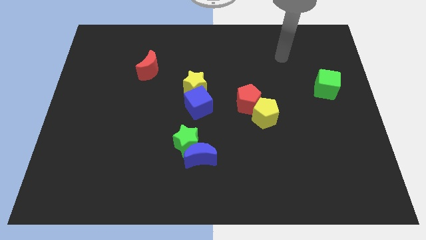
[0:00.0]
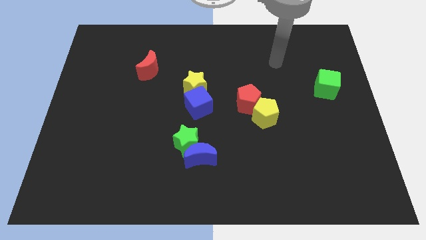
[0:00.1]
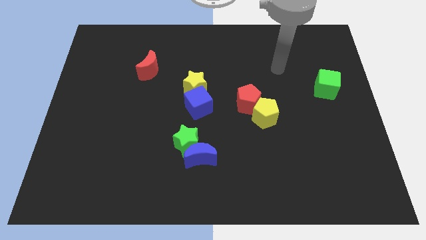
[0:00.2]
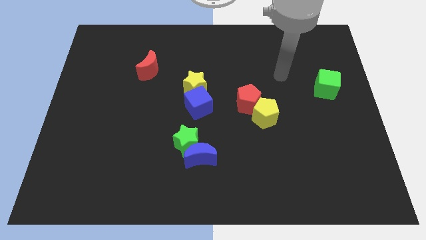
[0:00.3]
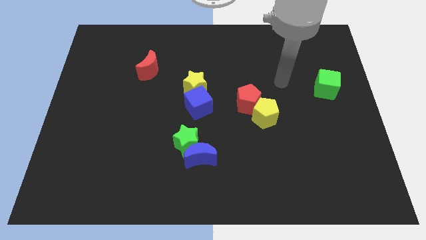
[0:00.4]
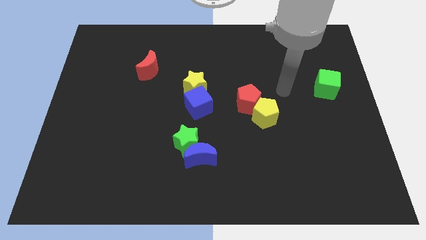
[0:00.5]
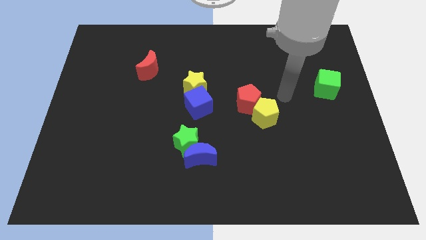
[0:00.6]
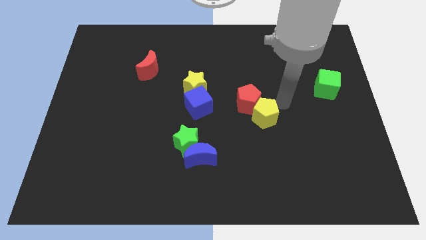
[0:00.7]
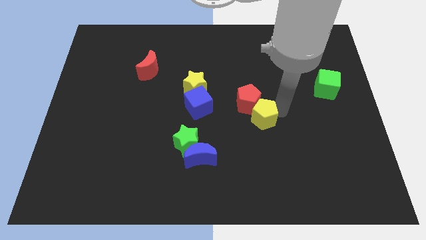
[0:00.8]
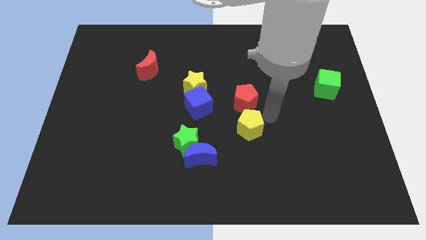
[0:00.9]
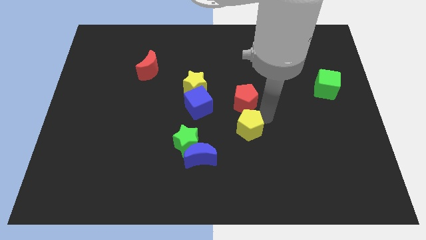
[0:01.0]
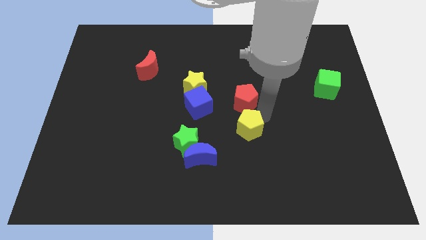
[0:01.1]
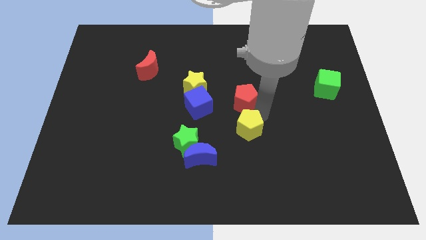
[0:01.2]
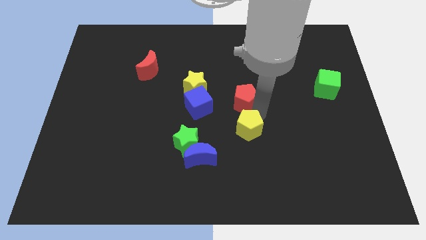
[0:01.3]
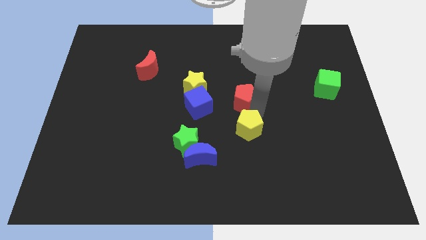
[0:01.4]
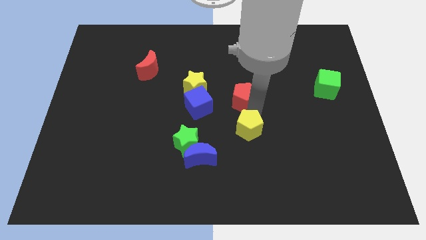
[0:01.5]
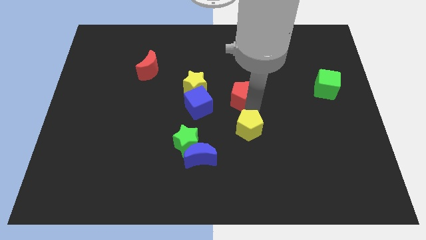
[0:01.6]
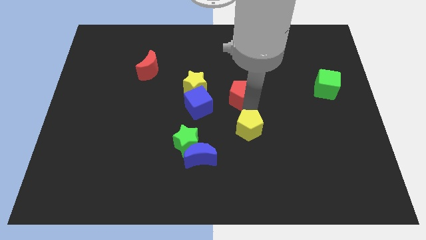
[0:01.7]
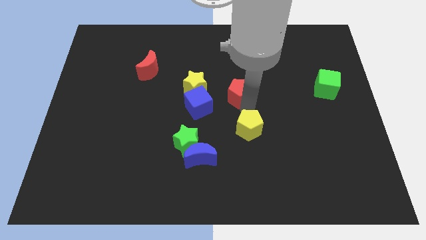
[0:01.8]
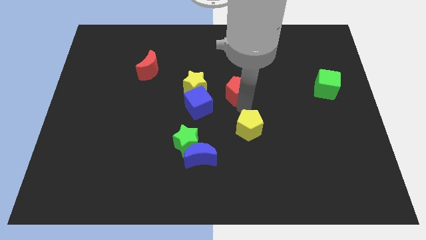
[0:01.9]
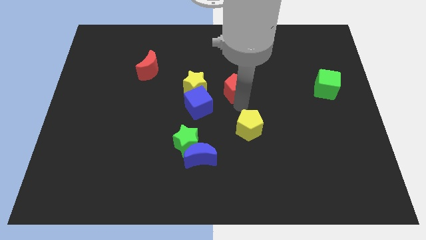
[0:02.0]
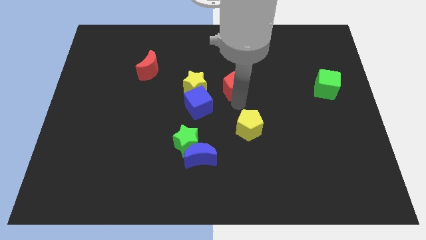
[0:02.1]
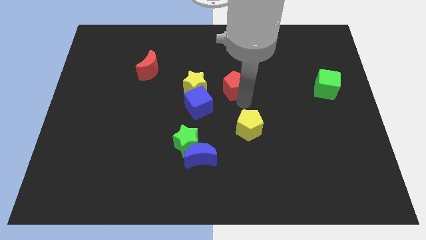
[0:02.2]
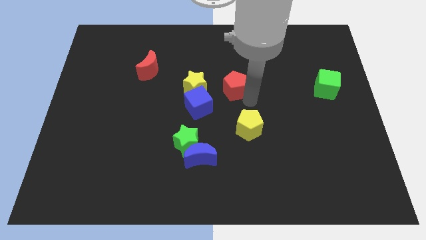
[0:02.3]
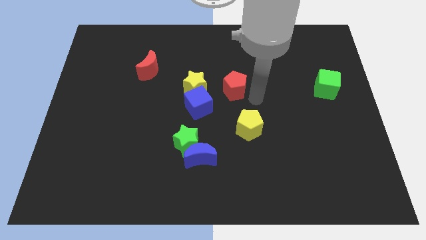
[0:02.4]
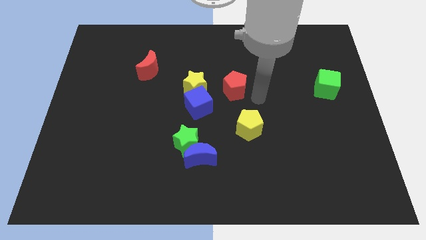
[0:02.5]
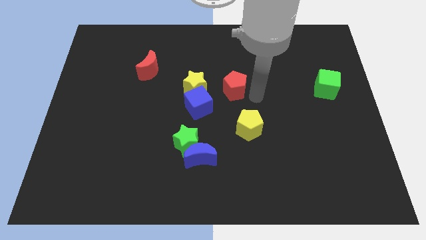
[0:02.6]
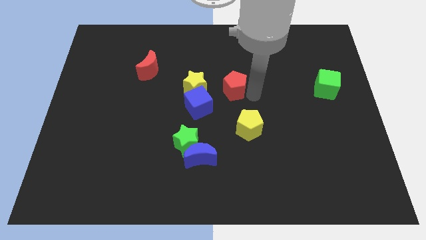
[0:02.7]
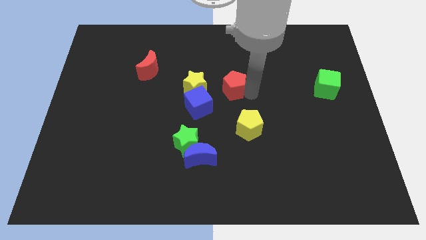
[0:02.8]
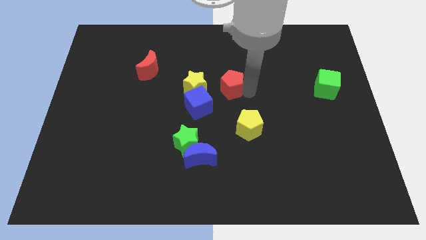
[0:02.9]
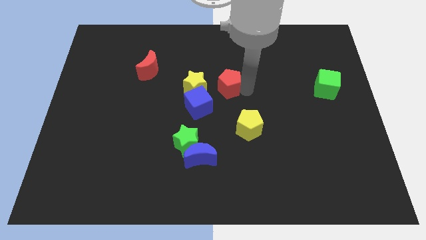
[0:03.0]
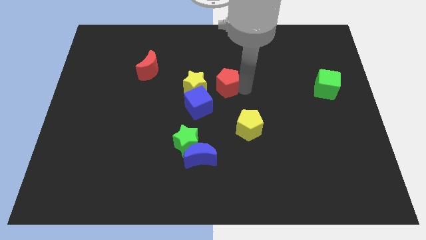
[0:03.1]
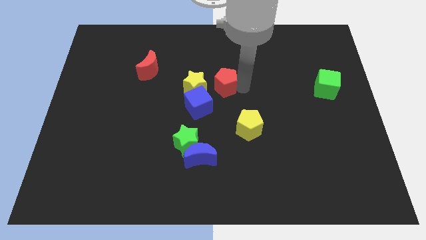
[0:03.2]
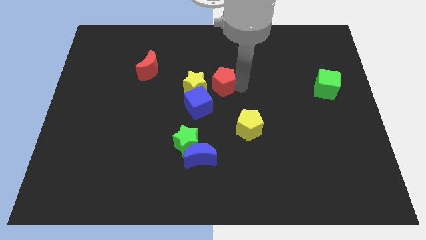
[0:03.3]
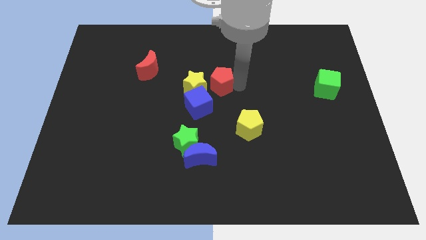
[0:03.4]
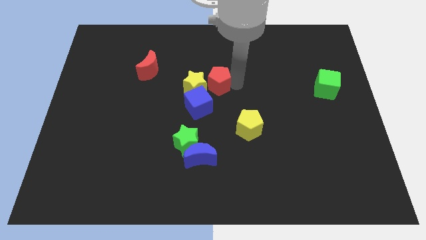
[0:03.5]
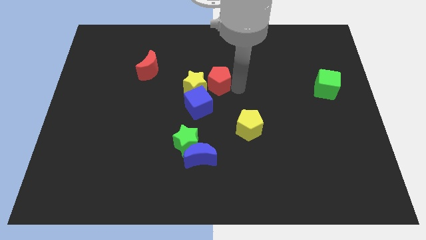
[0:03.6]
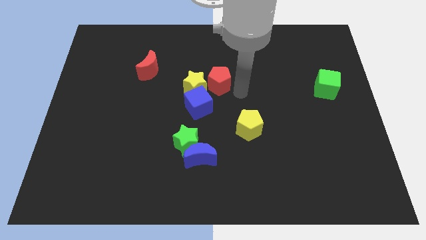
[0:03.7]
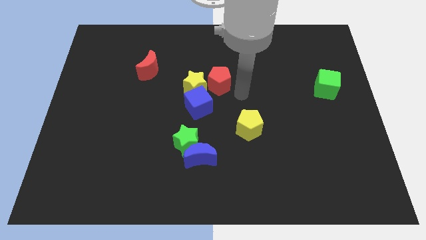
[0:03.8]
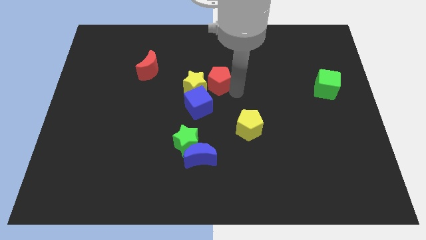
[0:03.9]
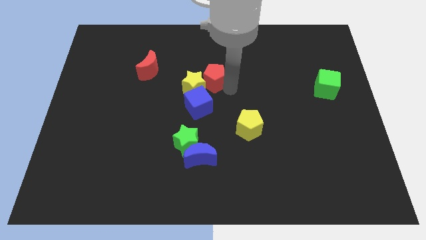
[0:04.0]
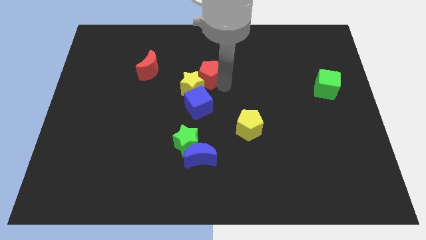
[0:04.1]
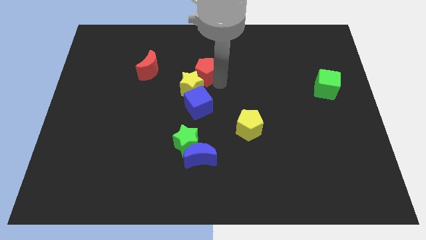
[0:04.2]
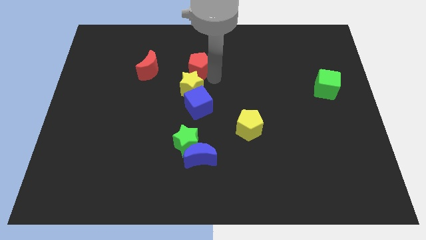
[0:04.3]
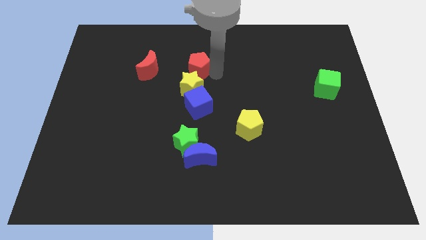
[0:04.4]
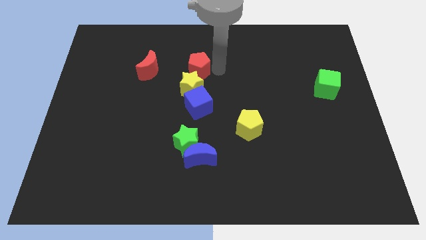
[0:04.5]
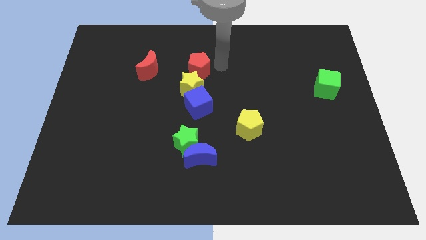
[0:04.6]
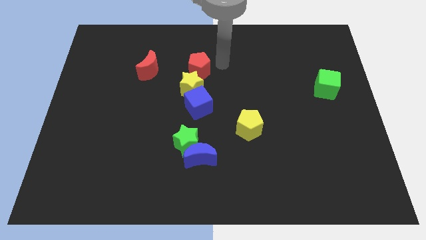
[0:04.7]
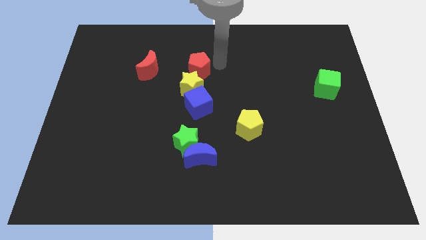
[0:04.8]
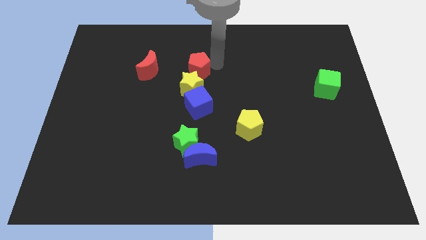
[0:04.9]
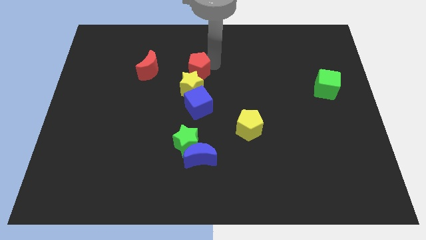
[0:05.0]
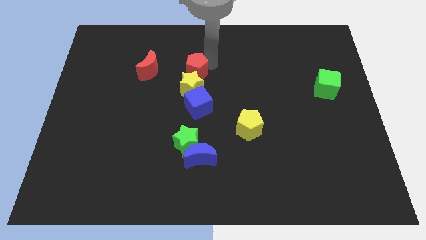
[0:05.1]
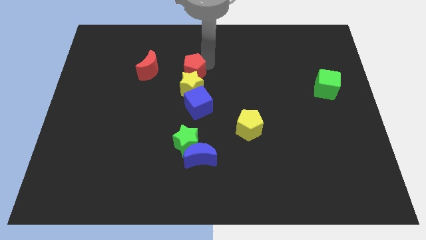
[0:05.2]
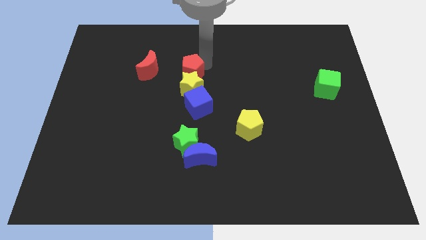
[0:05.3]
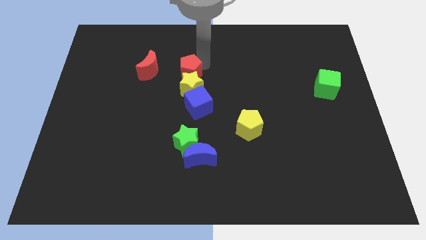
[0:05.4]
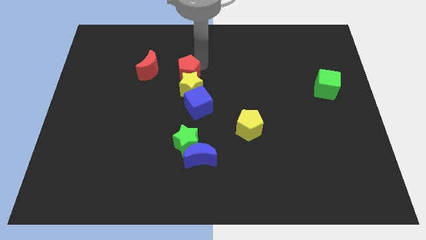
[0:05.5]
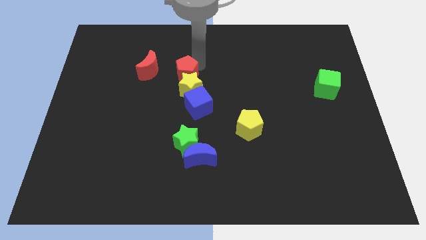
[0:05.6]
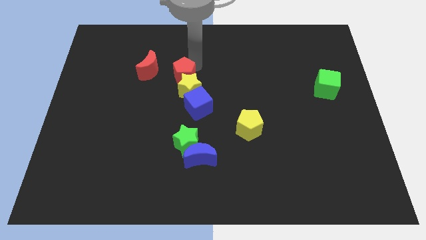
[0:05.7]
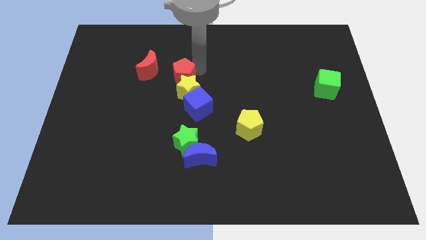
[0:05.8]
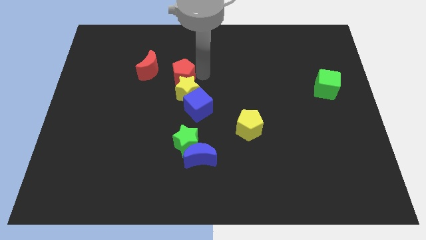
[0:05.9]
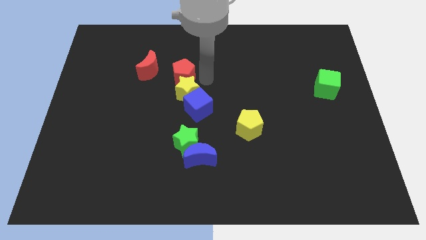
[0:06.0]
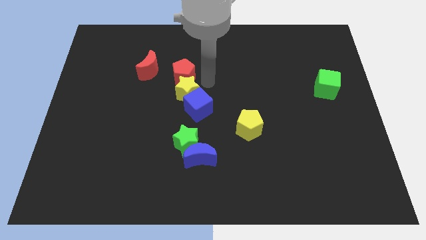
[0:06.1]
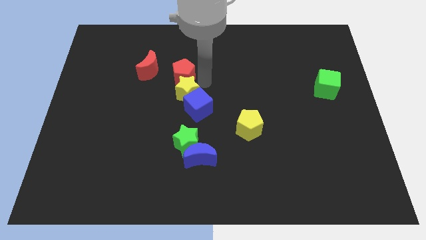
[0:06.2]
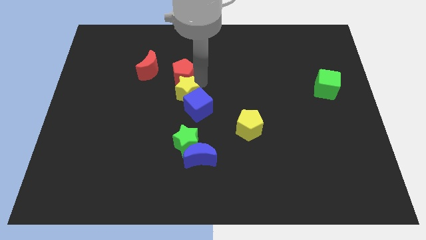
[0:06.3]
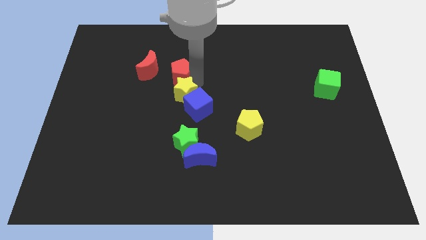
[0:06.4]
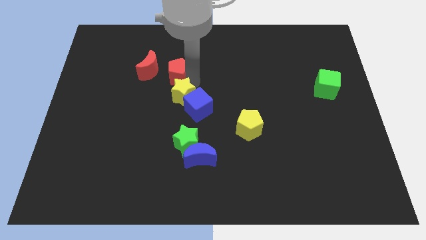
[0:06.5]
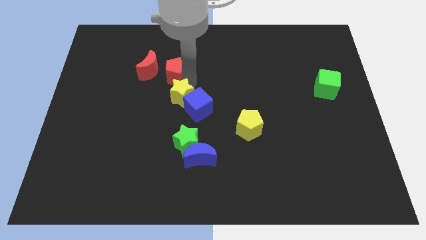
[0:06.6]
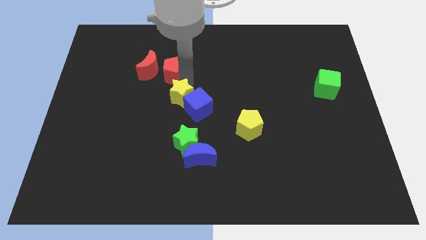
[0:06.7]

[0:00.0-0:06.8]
move the red pentagon to the red moon

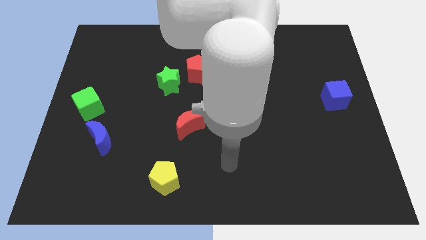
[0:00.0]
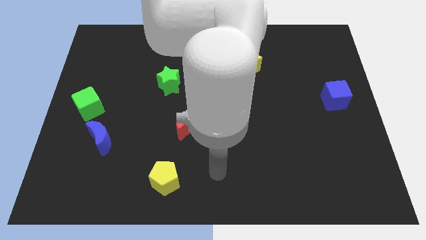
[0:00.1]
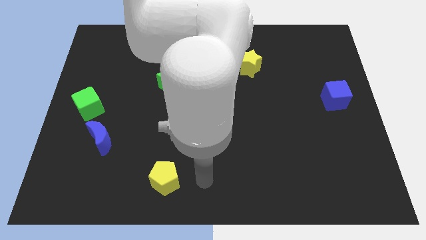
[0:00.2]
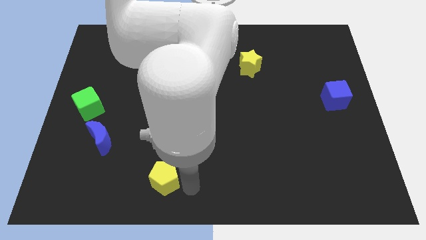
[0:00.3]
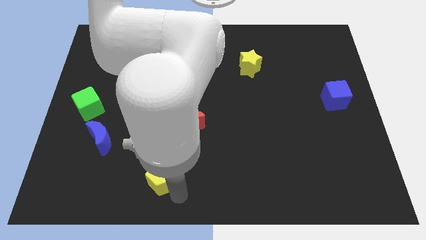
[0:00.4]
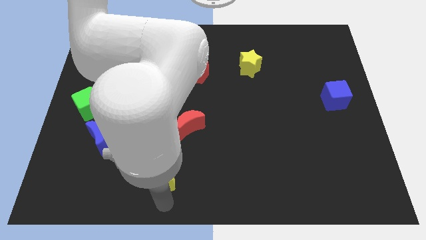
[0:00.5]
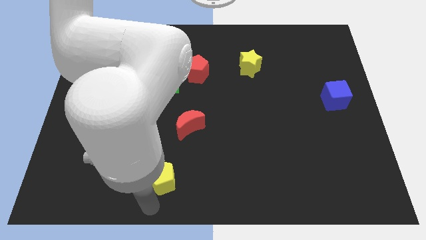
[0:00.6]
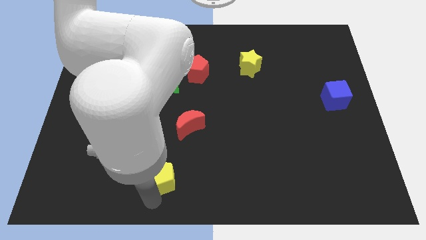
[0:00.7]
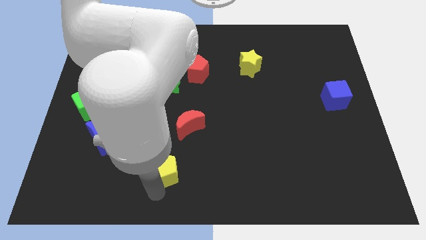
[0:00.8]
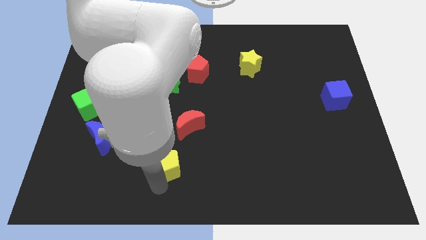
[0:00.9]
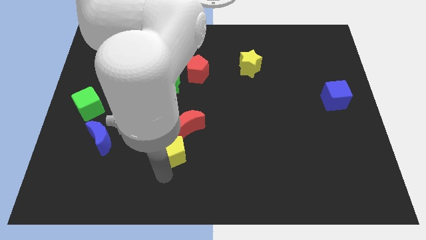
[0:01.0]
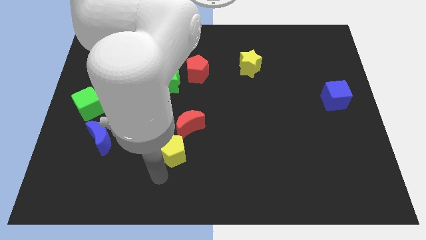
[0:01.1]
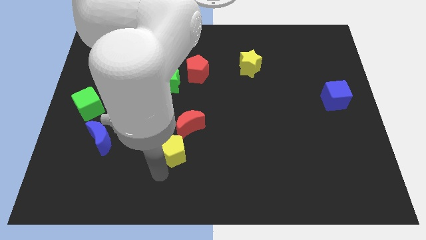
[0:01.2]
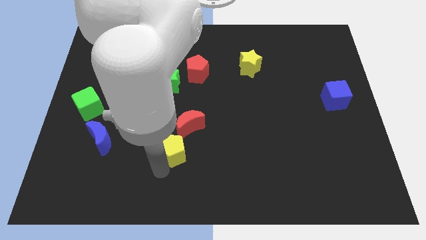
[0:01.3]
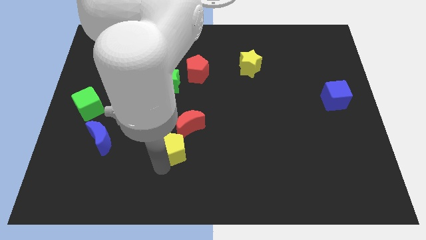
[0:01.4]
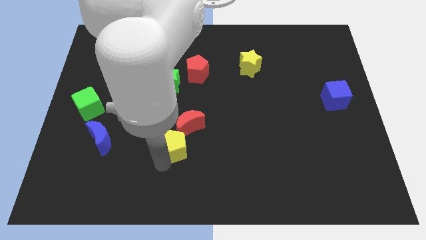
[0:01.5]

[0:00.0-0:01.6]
put the yellow pentagon towards the red moon
